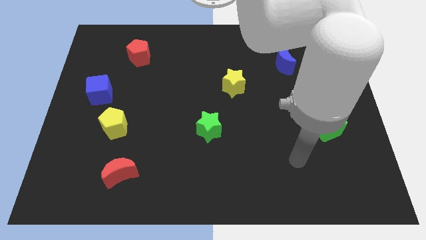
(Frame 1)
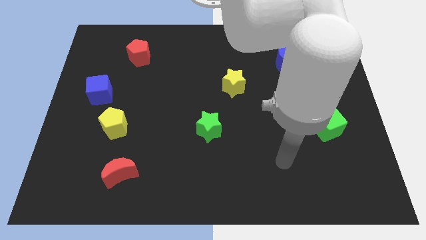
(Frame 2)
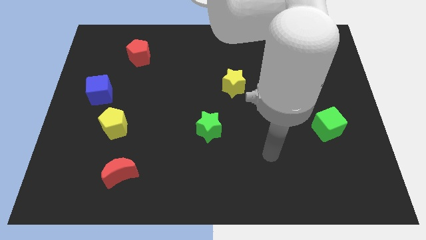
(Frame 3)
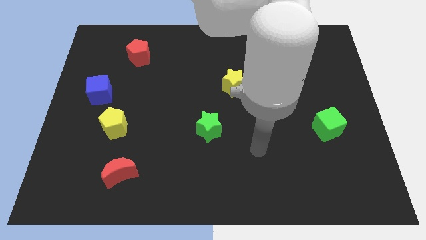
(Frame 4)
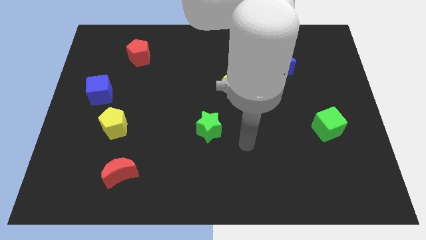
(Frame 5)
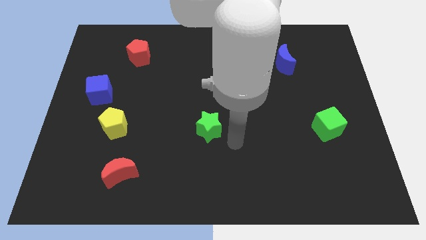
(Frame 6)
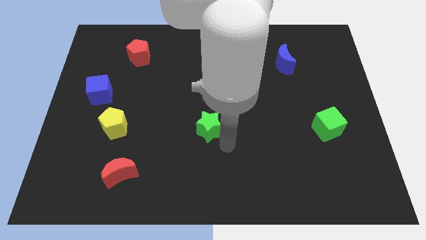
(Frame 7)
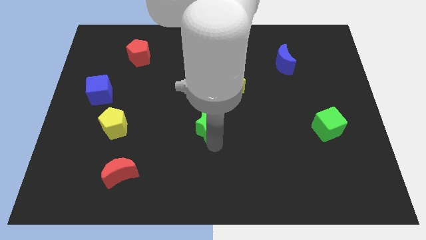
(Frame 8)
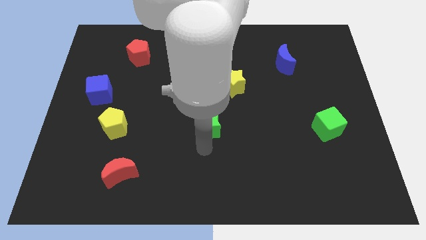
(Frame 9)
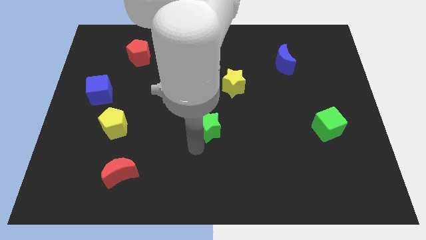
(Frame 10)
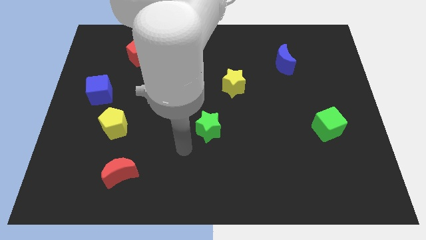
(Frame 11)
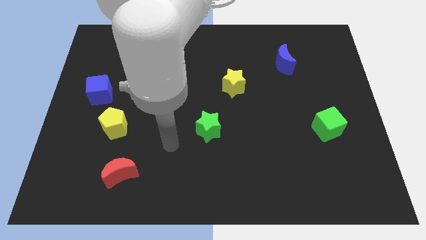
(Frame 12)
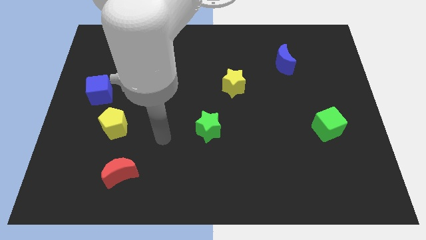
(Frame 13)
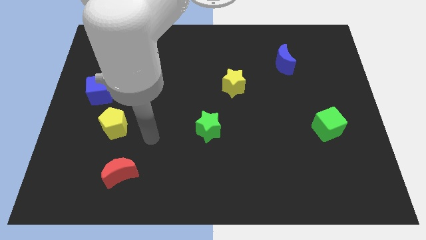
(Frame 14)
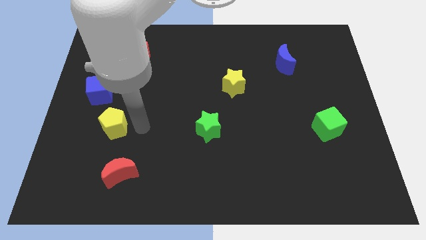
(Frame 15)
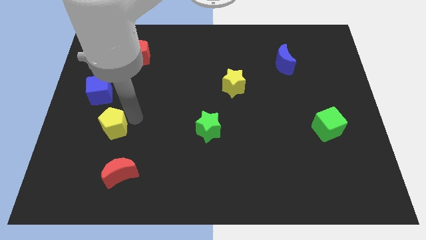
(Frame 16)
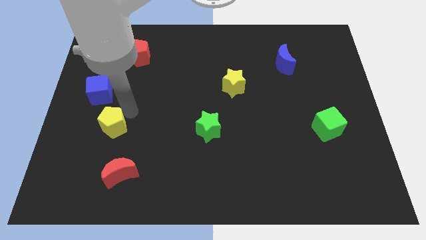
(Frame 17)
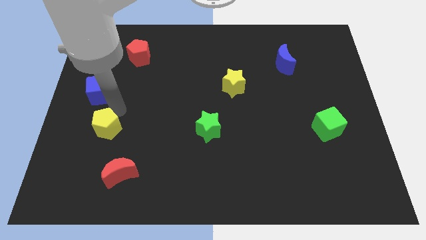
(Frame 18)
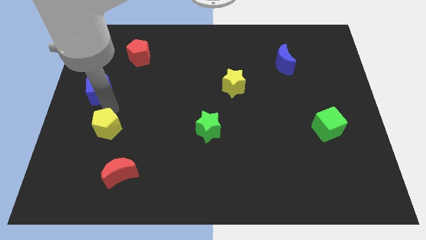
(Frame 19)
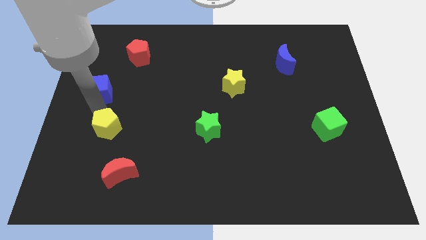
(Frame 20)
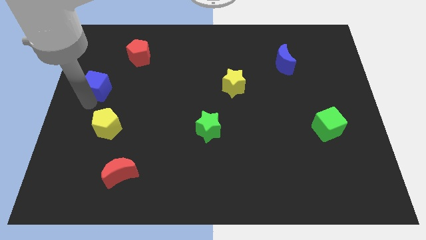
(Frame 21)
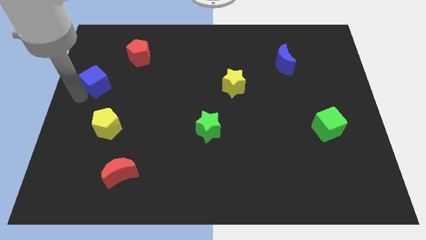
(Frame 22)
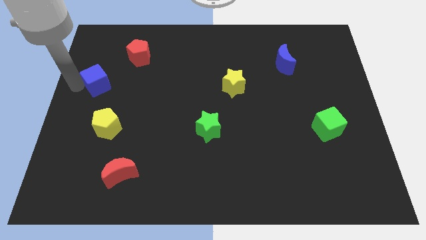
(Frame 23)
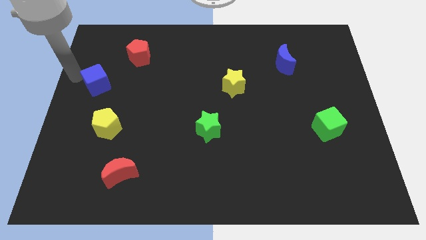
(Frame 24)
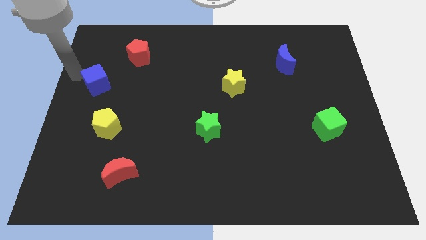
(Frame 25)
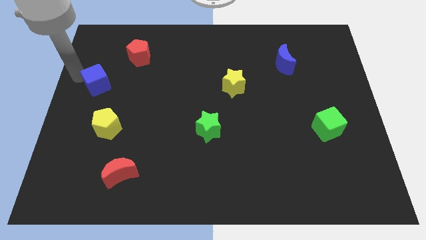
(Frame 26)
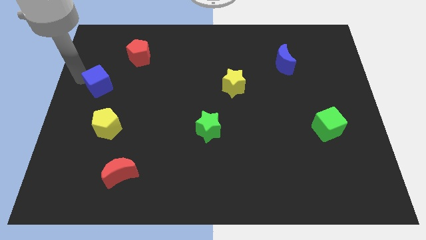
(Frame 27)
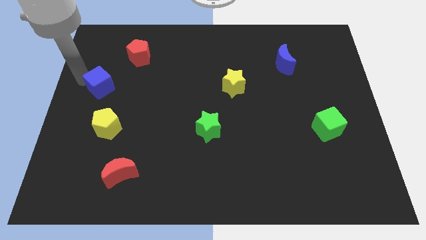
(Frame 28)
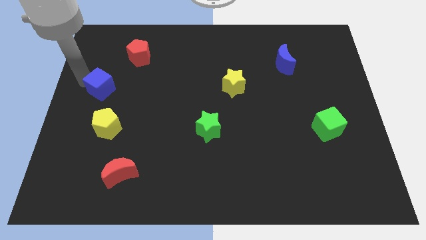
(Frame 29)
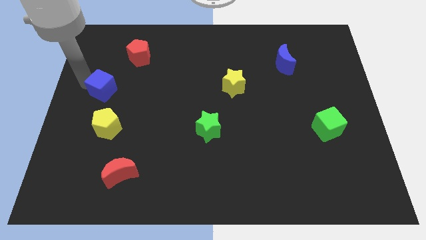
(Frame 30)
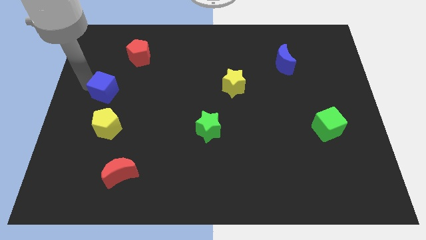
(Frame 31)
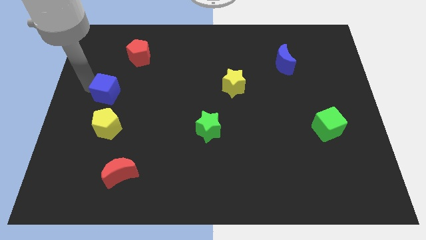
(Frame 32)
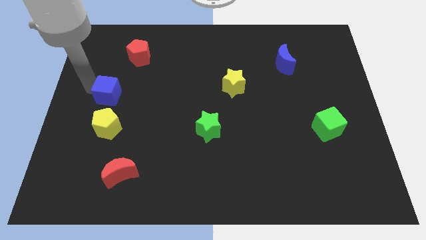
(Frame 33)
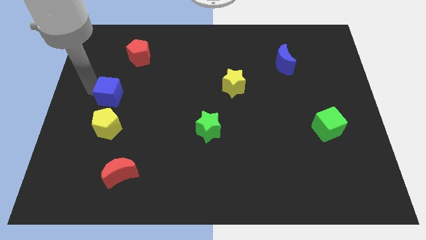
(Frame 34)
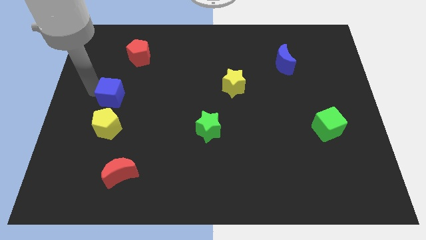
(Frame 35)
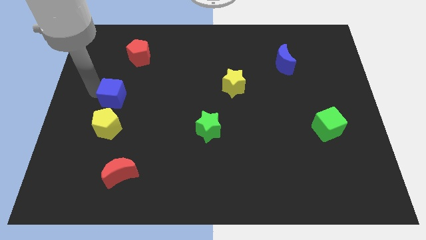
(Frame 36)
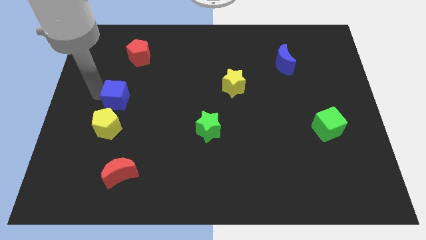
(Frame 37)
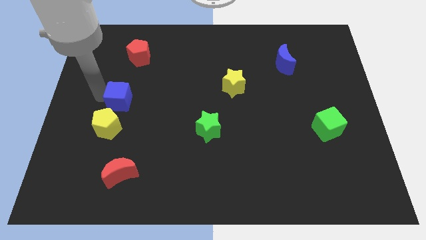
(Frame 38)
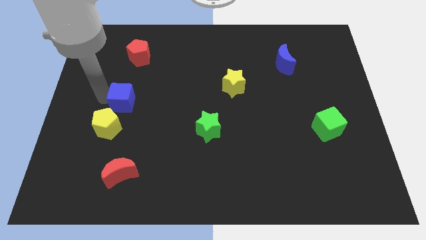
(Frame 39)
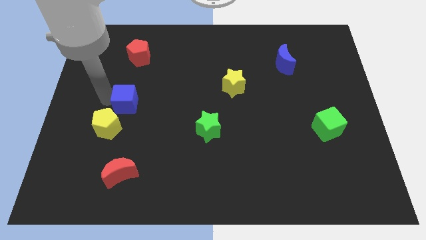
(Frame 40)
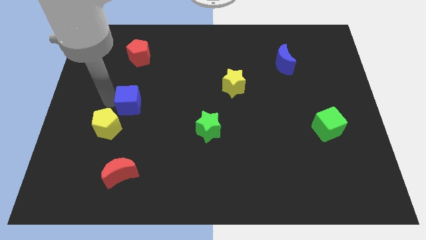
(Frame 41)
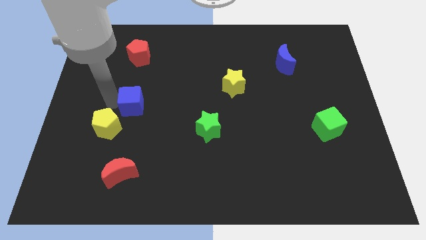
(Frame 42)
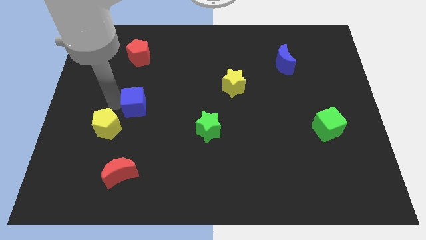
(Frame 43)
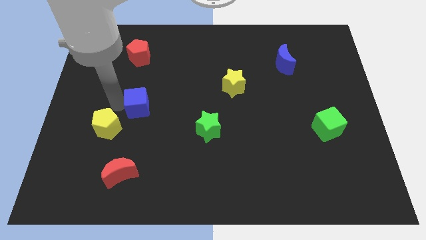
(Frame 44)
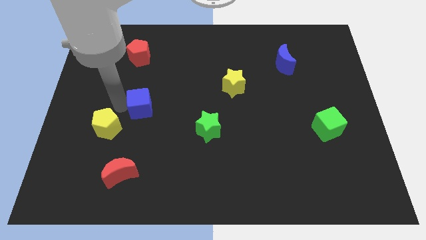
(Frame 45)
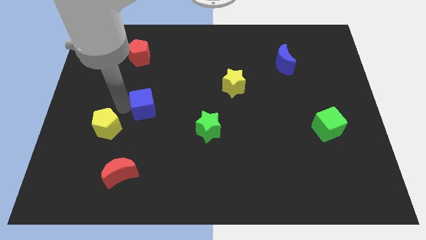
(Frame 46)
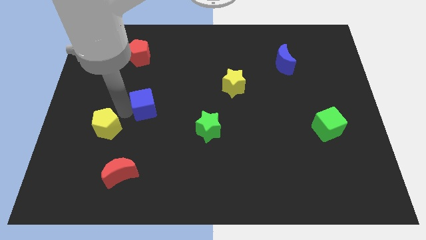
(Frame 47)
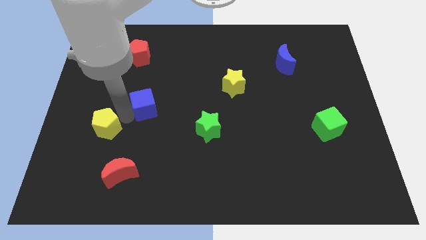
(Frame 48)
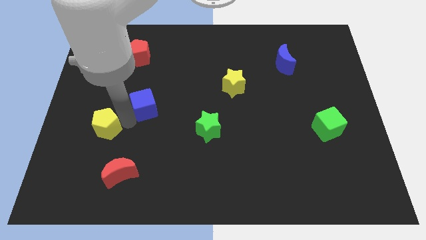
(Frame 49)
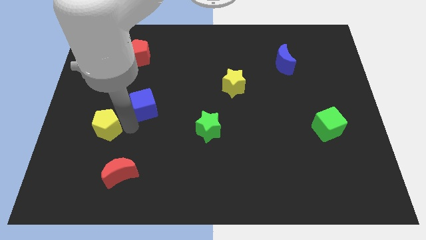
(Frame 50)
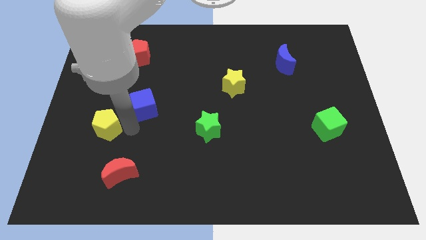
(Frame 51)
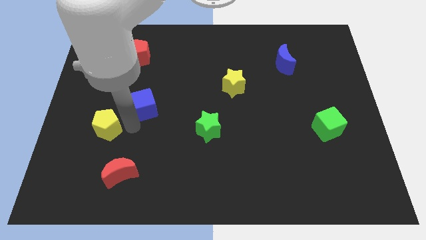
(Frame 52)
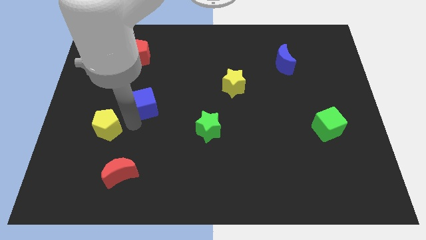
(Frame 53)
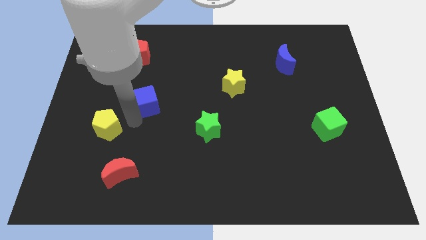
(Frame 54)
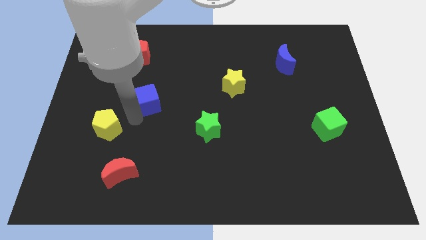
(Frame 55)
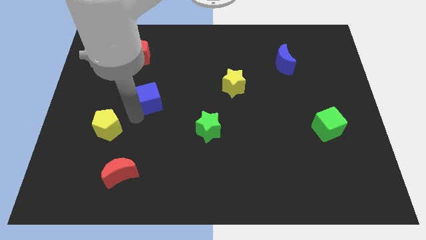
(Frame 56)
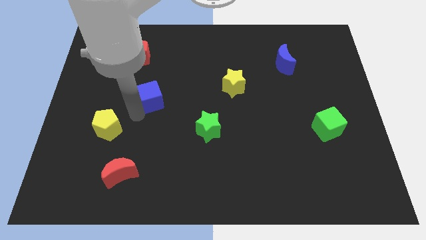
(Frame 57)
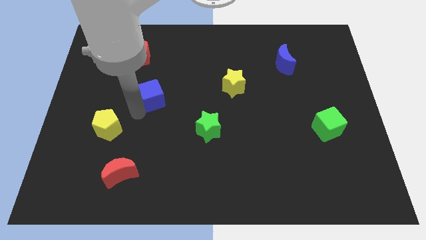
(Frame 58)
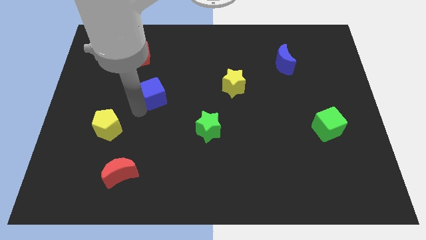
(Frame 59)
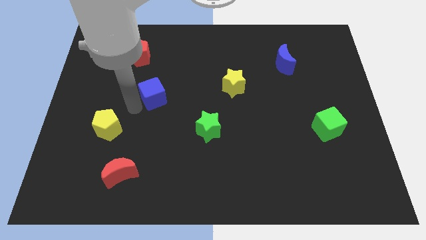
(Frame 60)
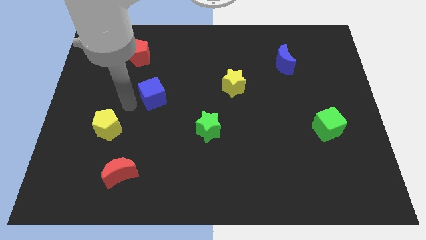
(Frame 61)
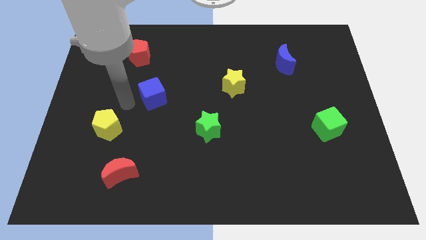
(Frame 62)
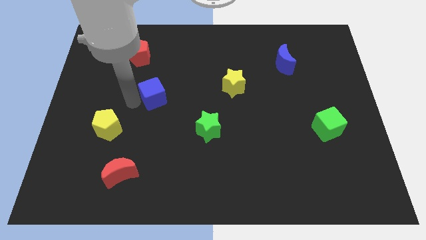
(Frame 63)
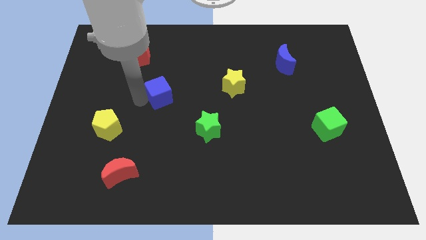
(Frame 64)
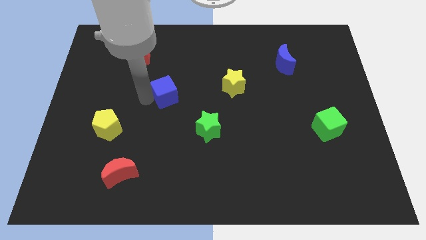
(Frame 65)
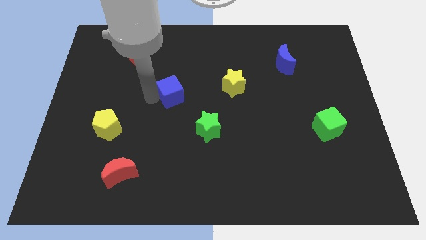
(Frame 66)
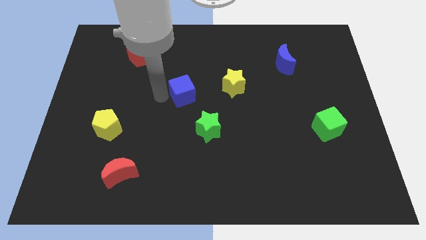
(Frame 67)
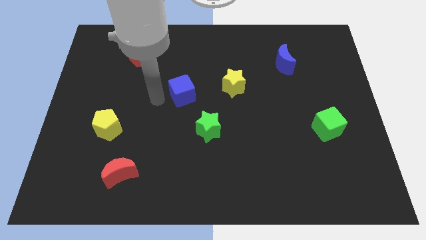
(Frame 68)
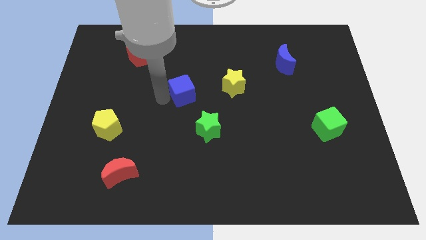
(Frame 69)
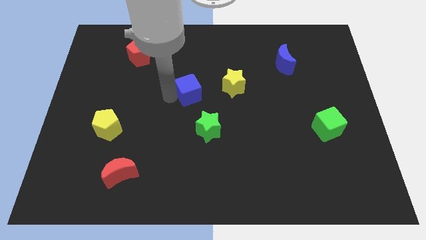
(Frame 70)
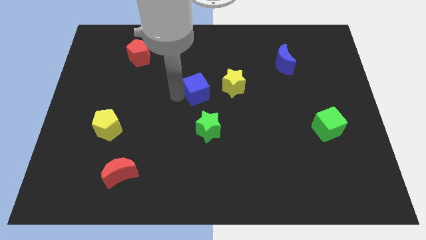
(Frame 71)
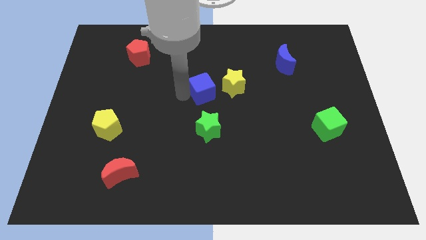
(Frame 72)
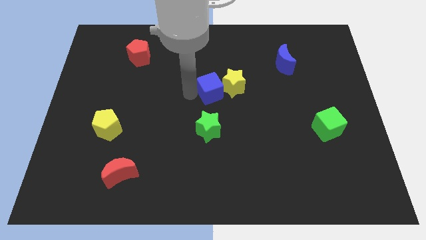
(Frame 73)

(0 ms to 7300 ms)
slide the blue cube next to the yellow star

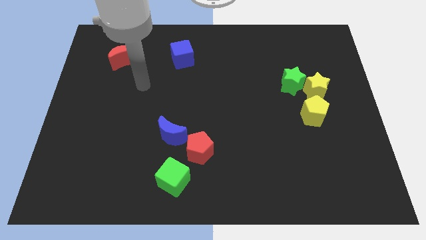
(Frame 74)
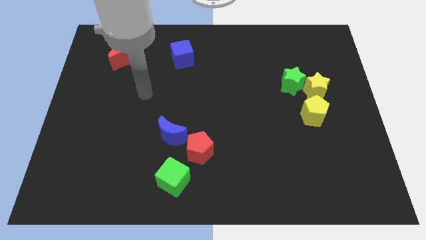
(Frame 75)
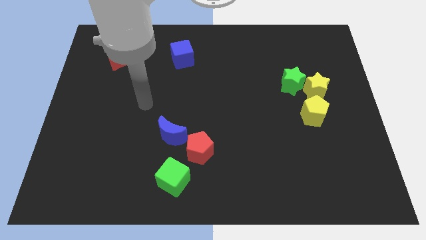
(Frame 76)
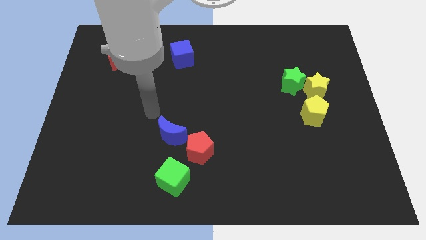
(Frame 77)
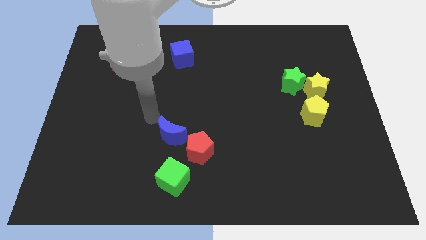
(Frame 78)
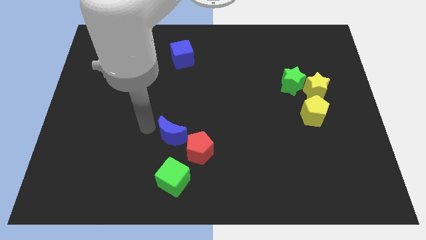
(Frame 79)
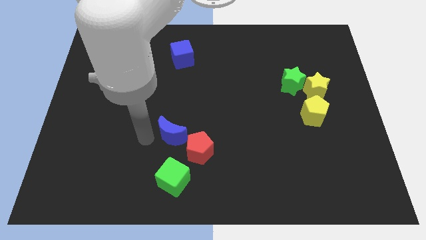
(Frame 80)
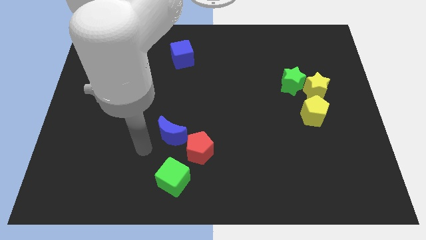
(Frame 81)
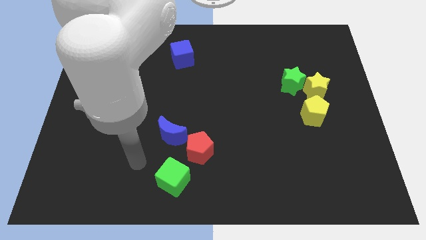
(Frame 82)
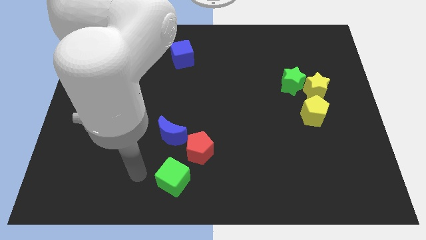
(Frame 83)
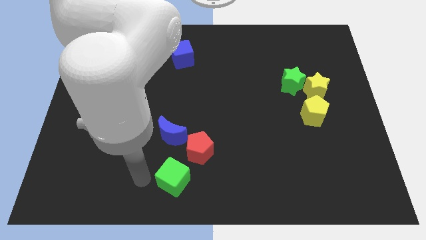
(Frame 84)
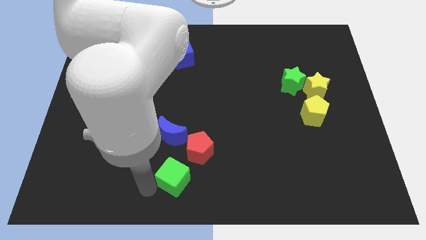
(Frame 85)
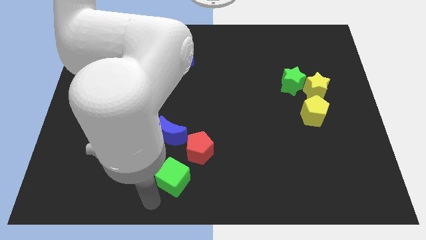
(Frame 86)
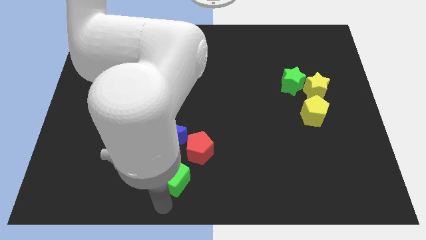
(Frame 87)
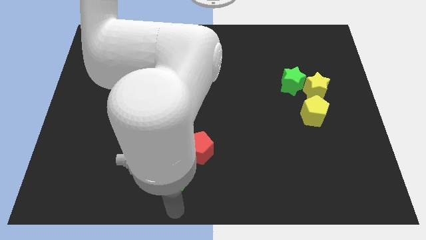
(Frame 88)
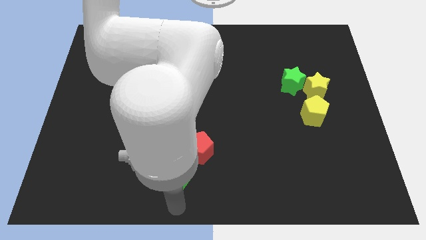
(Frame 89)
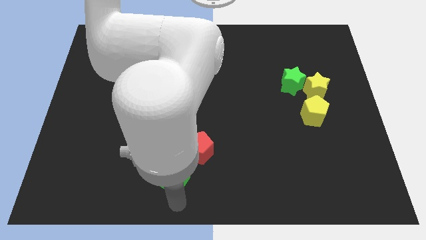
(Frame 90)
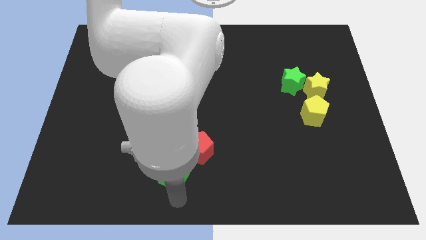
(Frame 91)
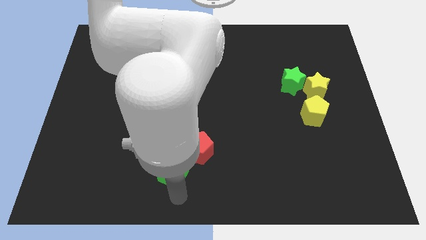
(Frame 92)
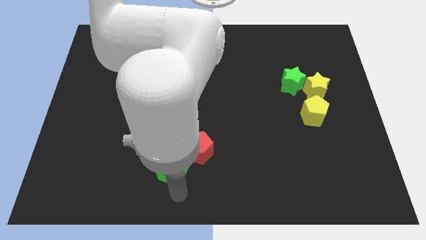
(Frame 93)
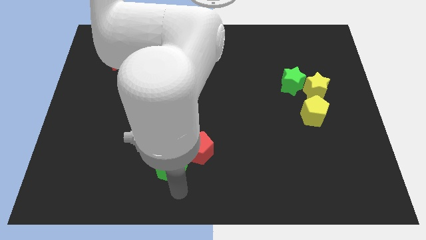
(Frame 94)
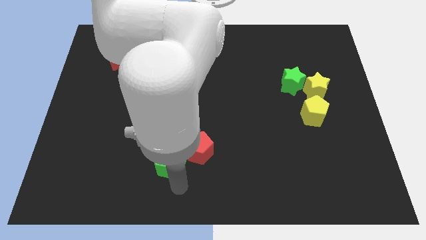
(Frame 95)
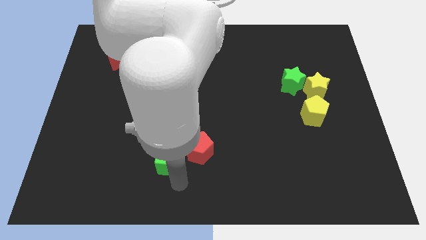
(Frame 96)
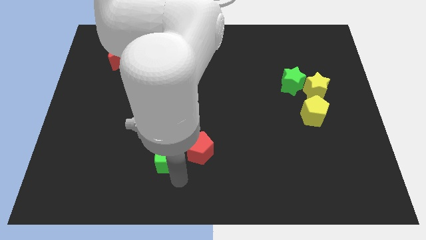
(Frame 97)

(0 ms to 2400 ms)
slide the green cube towards the blue moon
